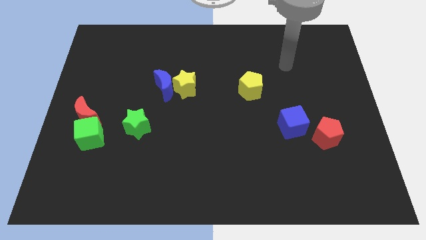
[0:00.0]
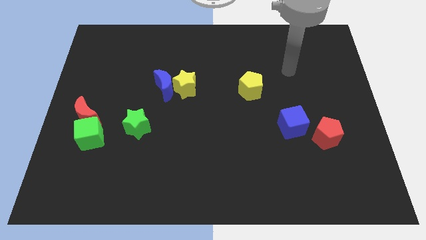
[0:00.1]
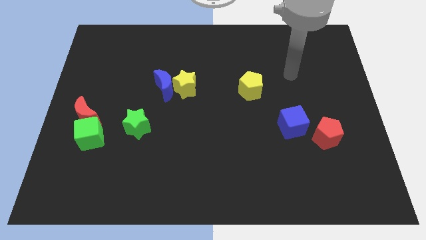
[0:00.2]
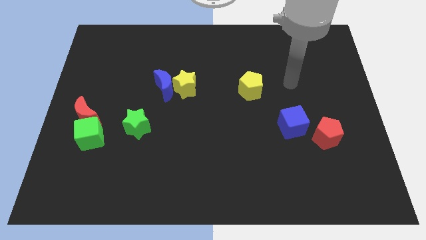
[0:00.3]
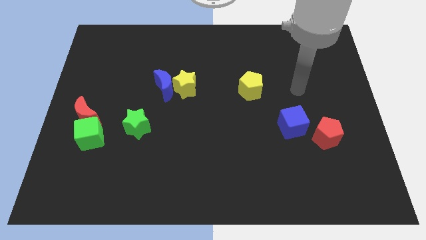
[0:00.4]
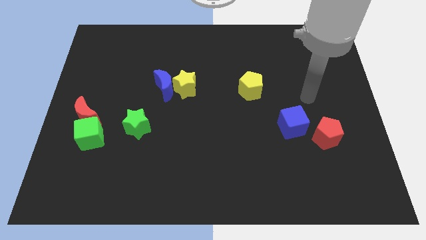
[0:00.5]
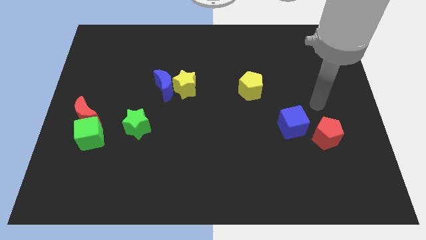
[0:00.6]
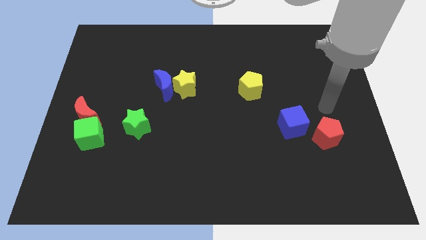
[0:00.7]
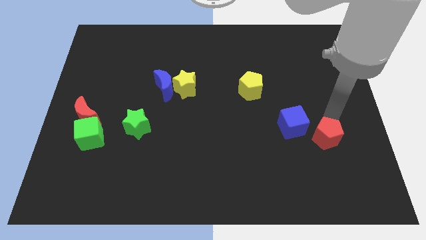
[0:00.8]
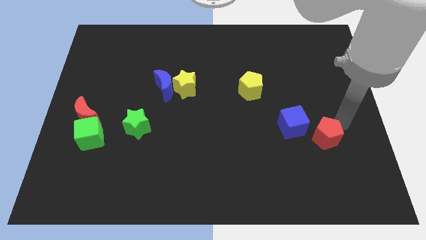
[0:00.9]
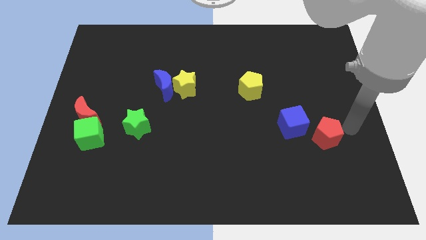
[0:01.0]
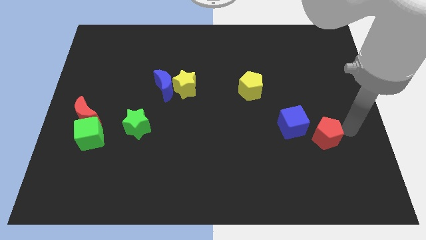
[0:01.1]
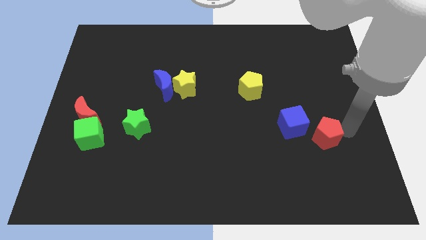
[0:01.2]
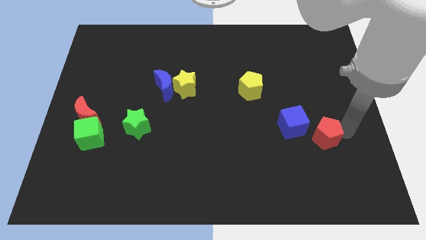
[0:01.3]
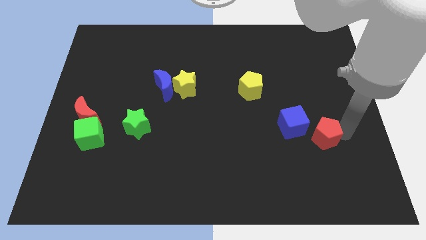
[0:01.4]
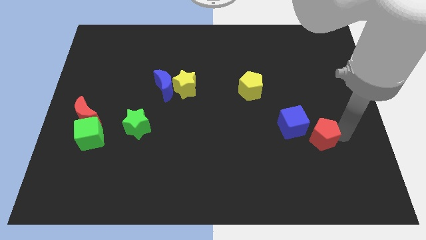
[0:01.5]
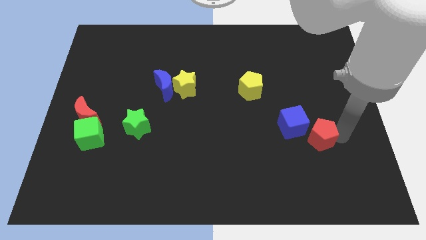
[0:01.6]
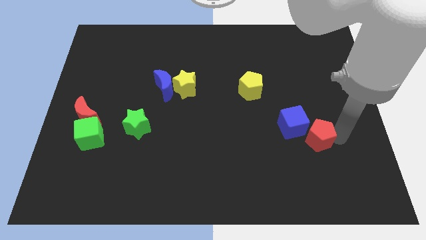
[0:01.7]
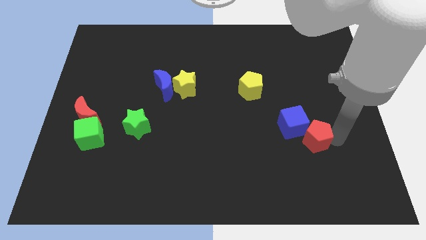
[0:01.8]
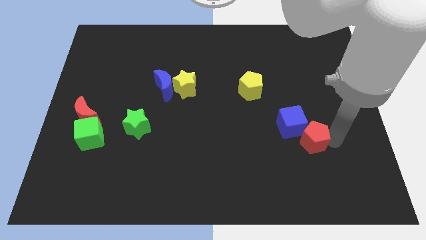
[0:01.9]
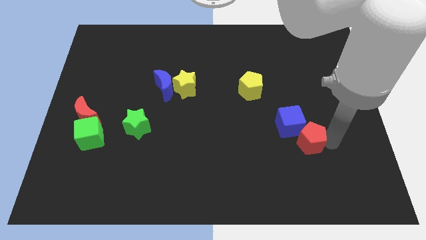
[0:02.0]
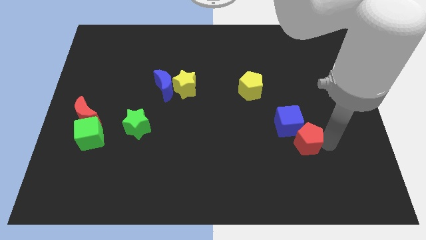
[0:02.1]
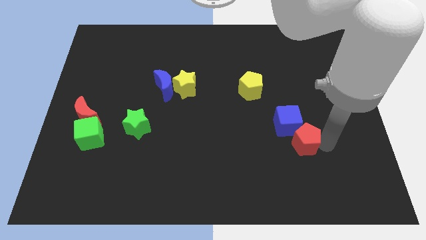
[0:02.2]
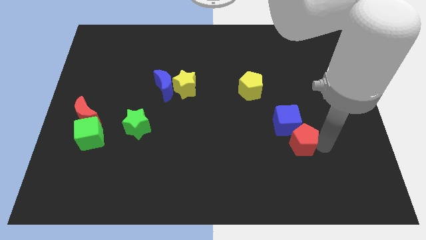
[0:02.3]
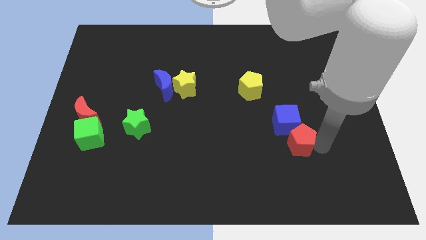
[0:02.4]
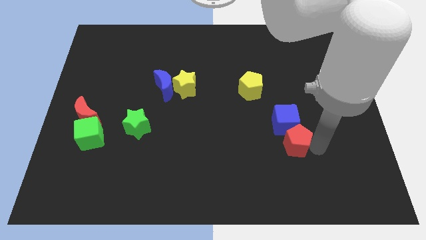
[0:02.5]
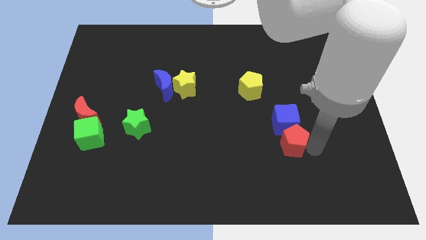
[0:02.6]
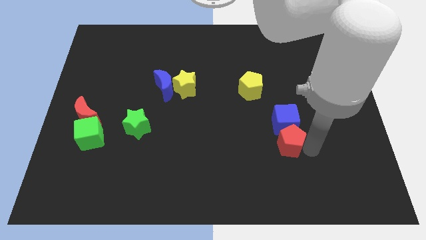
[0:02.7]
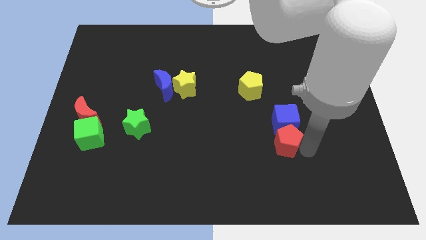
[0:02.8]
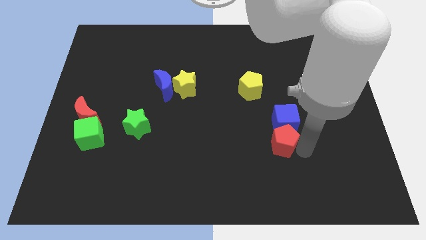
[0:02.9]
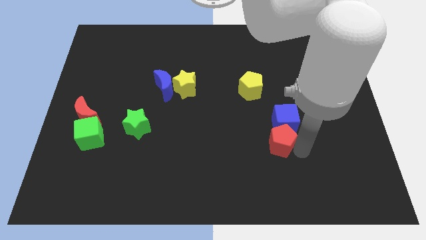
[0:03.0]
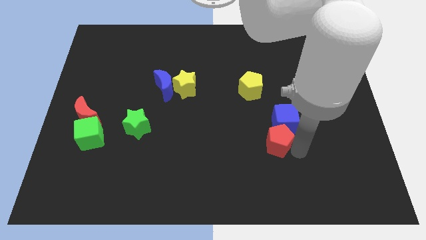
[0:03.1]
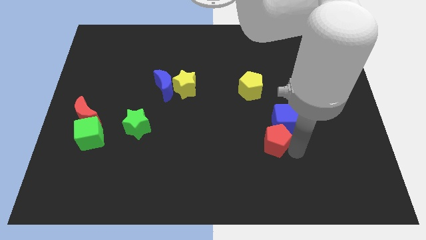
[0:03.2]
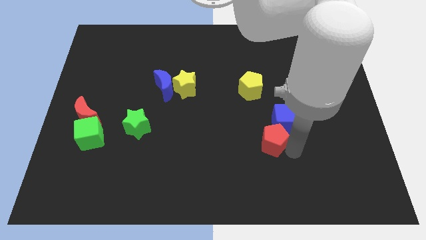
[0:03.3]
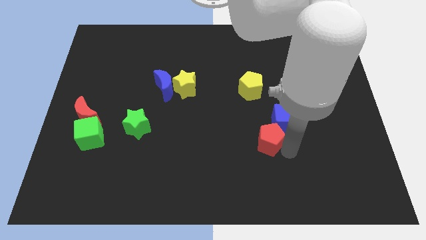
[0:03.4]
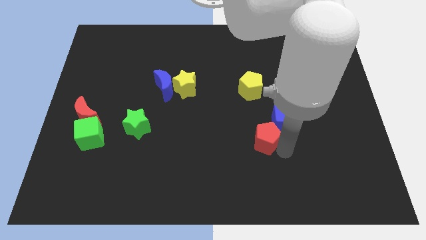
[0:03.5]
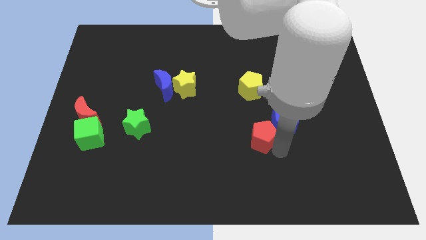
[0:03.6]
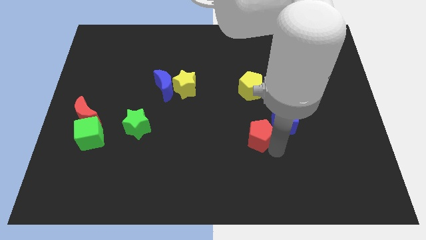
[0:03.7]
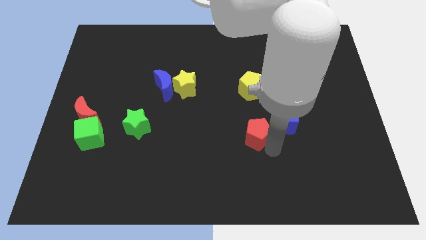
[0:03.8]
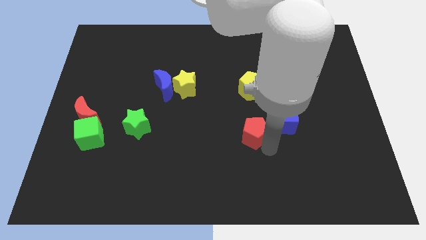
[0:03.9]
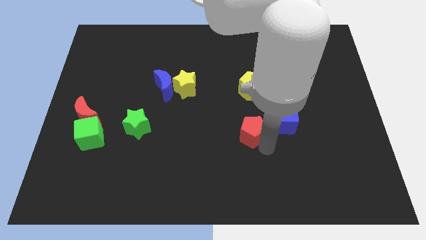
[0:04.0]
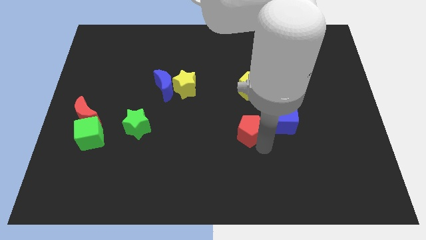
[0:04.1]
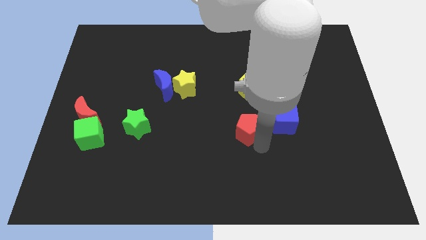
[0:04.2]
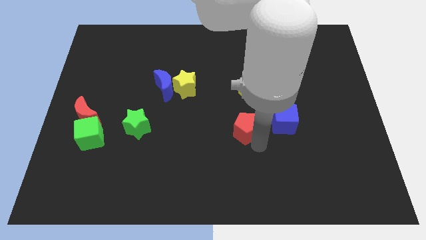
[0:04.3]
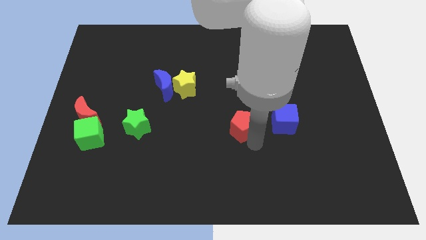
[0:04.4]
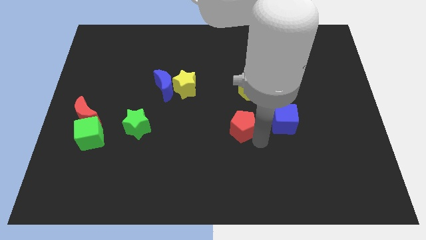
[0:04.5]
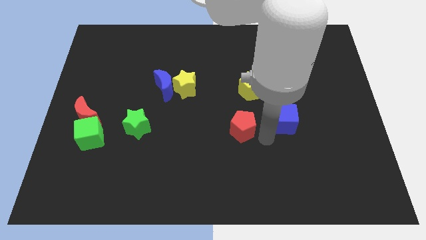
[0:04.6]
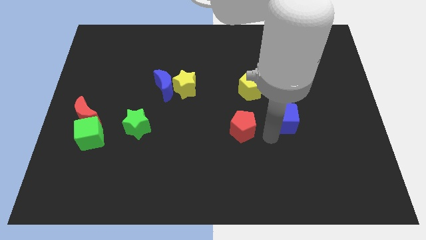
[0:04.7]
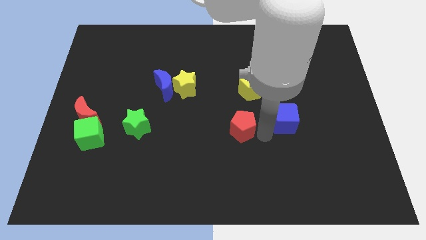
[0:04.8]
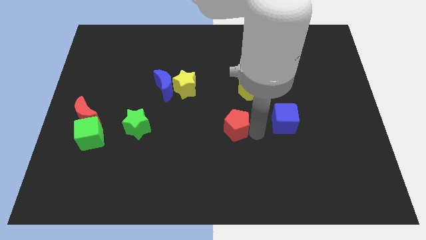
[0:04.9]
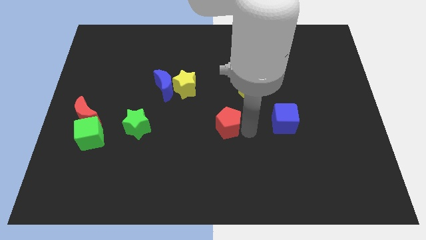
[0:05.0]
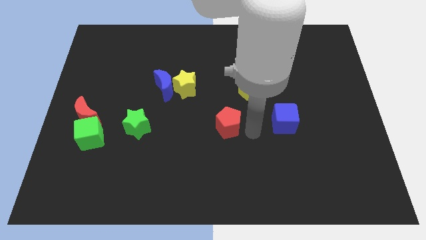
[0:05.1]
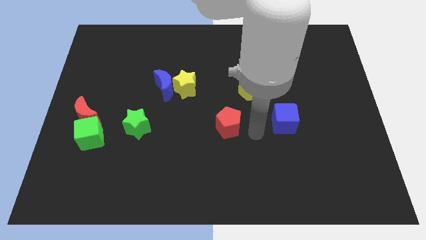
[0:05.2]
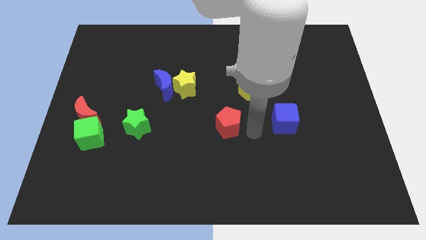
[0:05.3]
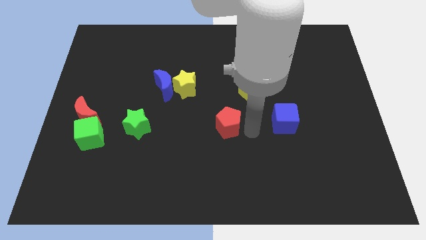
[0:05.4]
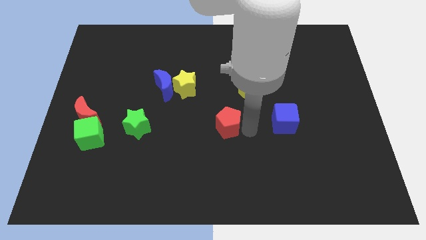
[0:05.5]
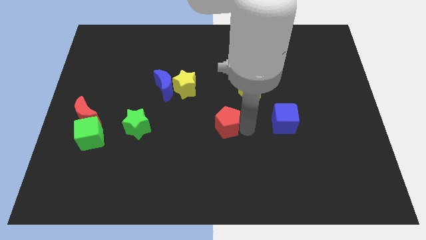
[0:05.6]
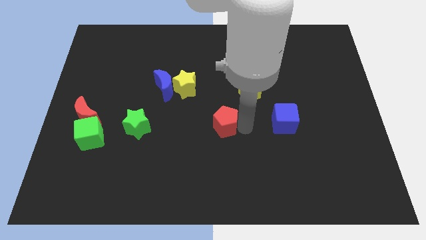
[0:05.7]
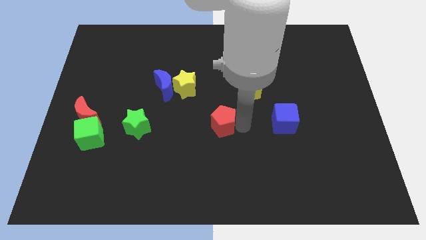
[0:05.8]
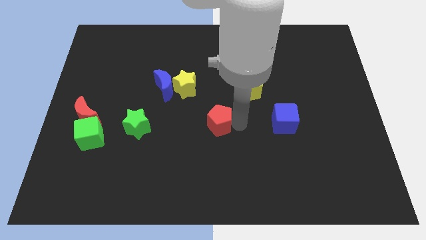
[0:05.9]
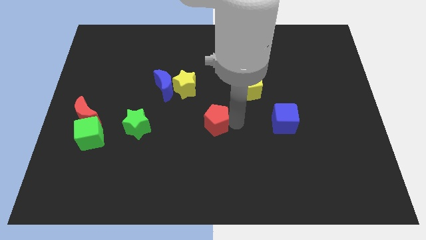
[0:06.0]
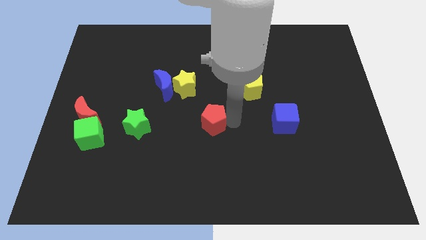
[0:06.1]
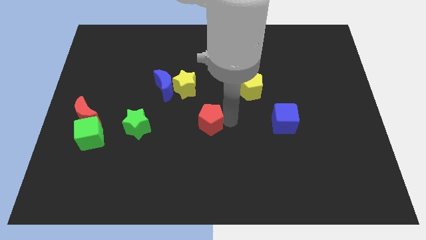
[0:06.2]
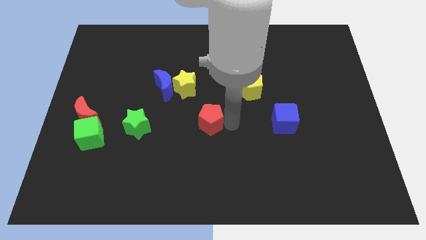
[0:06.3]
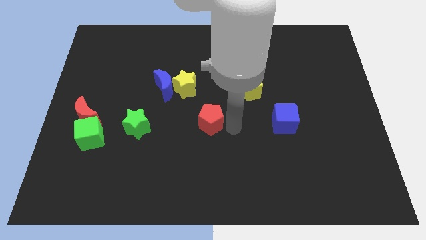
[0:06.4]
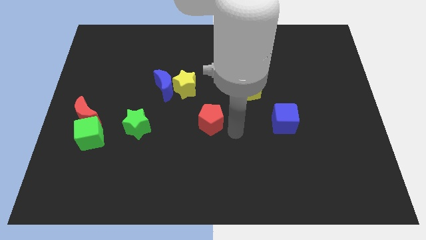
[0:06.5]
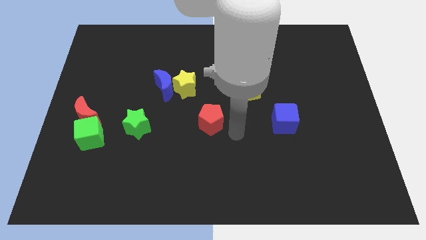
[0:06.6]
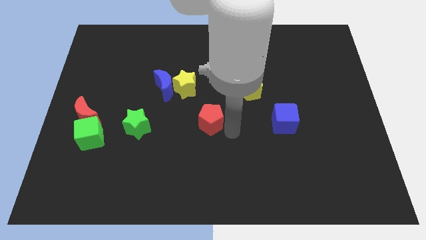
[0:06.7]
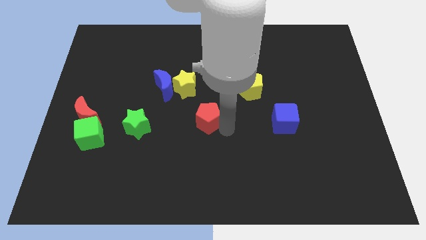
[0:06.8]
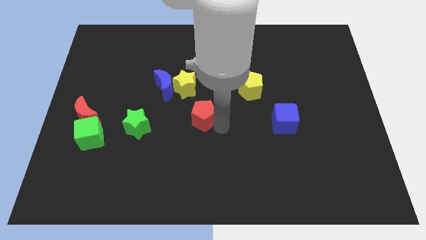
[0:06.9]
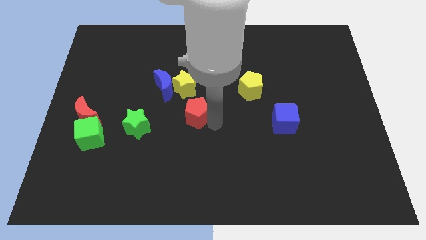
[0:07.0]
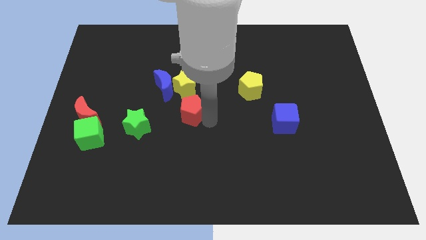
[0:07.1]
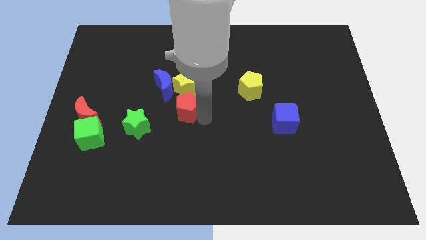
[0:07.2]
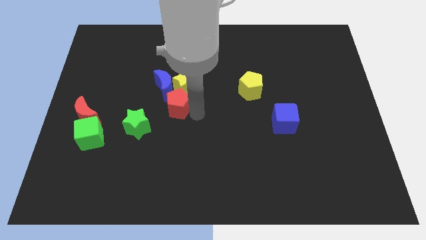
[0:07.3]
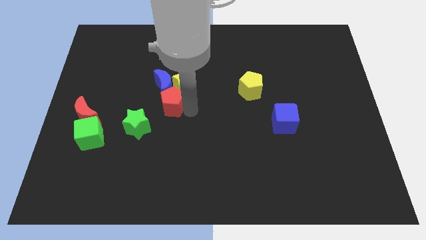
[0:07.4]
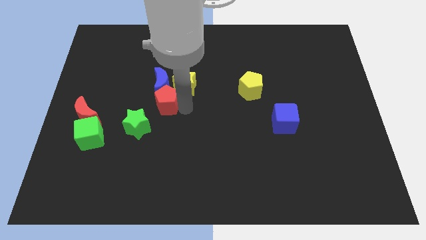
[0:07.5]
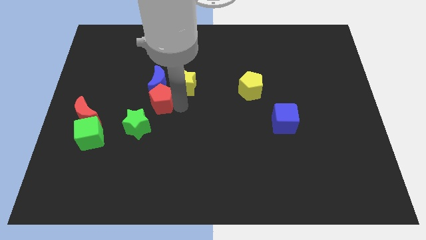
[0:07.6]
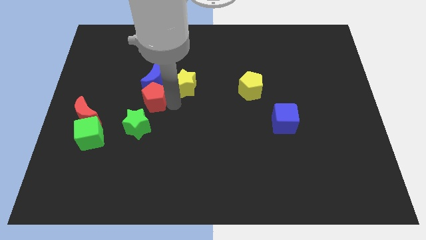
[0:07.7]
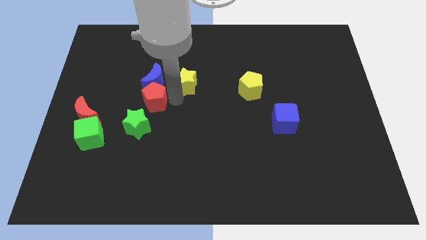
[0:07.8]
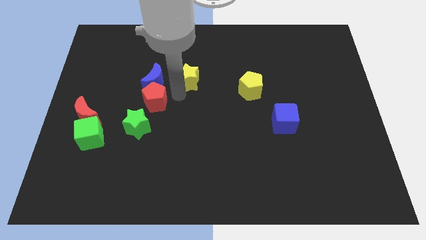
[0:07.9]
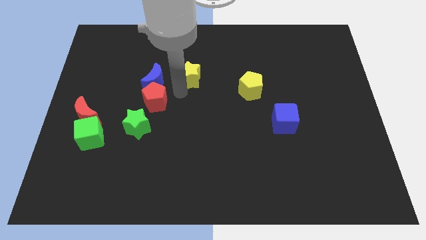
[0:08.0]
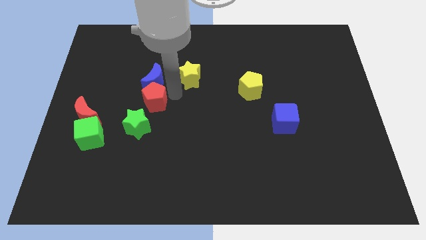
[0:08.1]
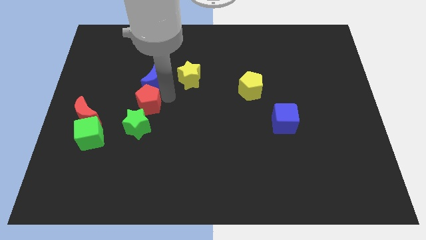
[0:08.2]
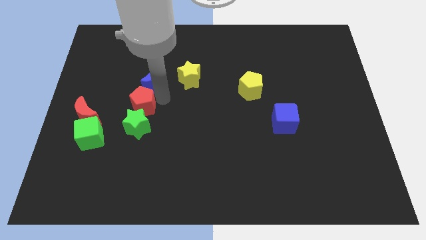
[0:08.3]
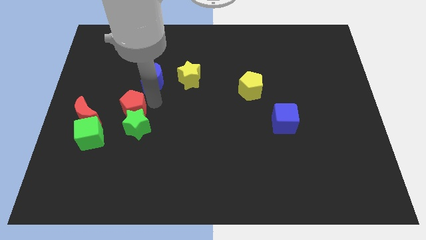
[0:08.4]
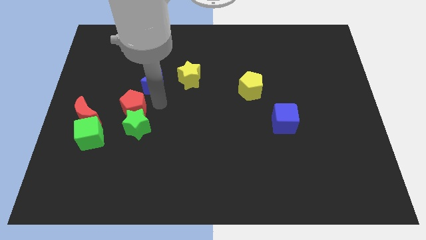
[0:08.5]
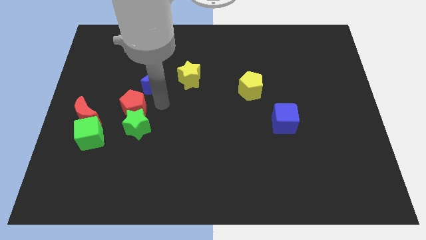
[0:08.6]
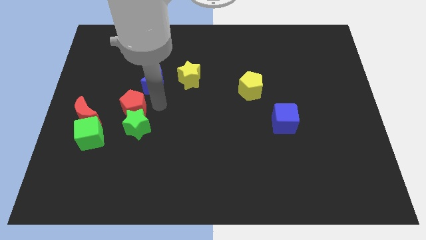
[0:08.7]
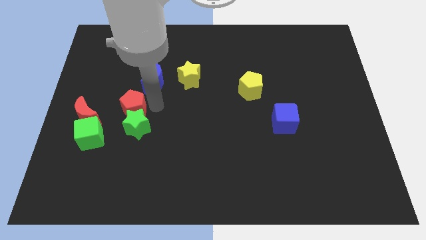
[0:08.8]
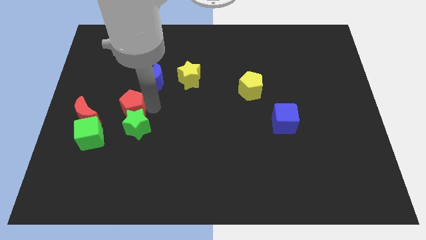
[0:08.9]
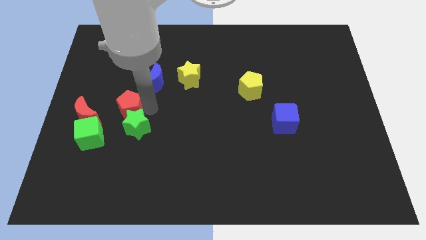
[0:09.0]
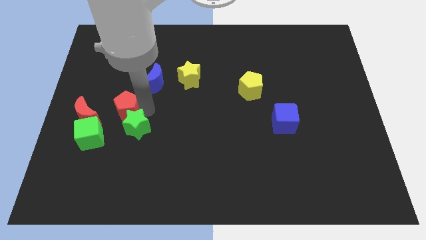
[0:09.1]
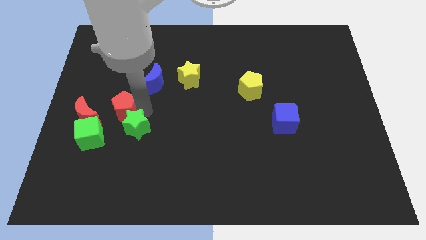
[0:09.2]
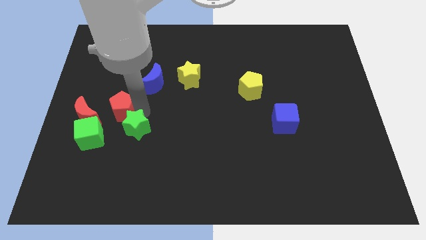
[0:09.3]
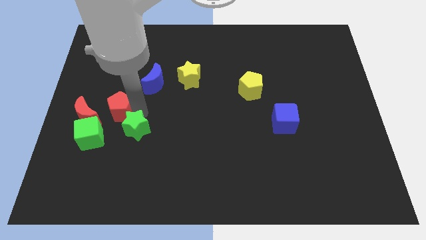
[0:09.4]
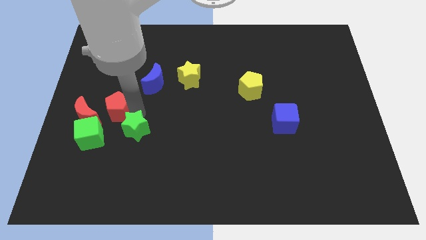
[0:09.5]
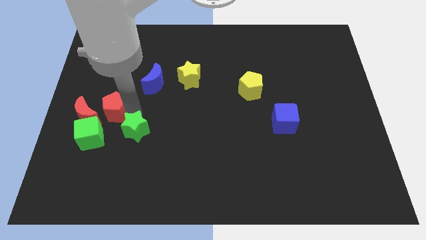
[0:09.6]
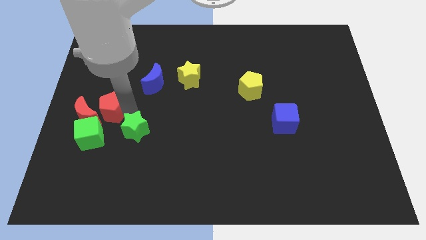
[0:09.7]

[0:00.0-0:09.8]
move the red pentagon next to the red moon
